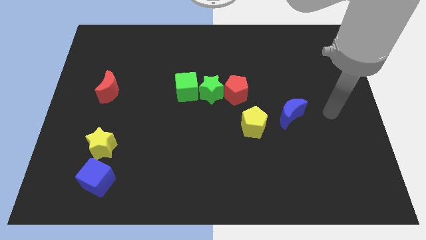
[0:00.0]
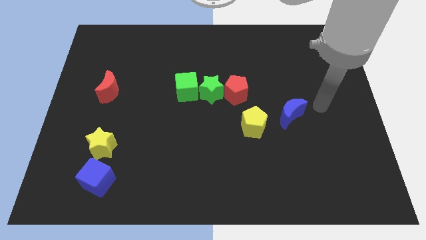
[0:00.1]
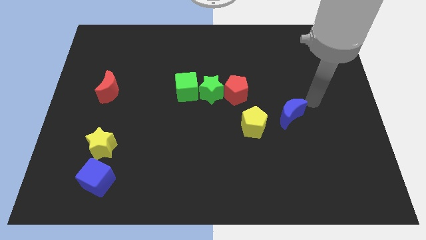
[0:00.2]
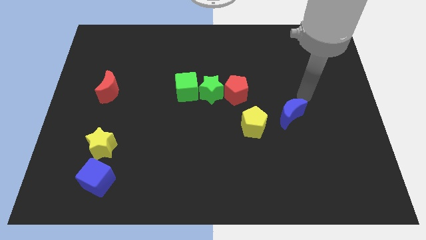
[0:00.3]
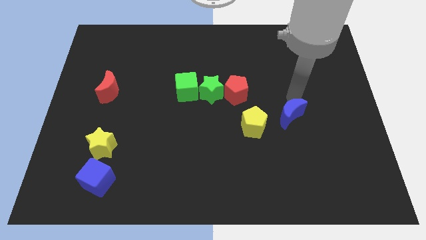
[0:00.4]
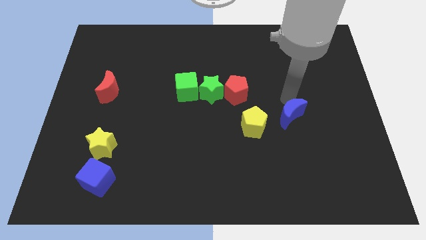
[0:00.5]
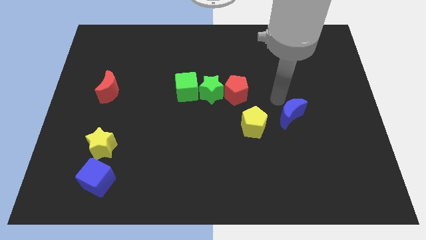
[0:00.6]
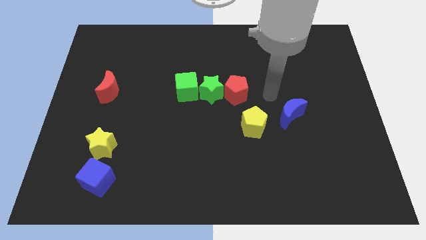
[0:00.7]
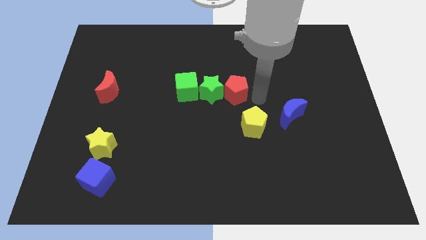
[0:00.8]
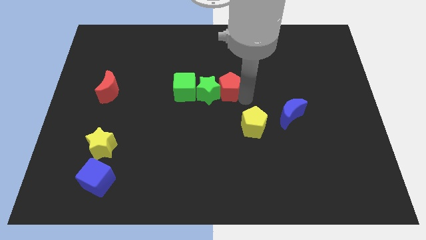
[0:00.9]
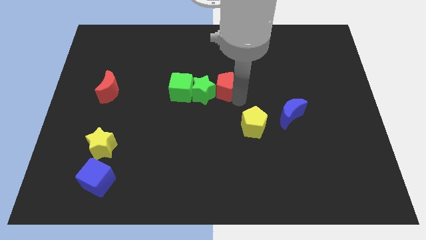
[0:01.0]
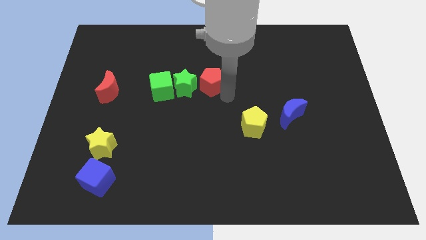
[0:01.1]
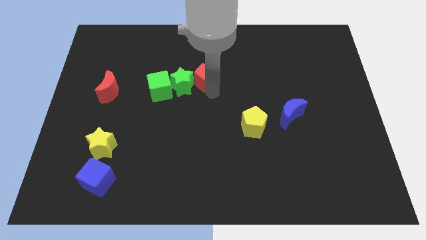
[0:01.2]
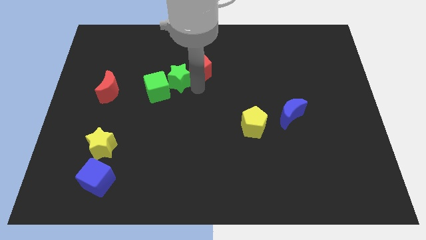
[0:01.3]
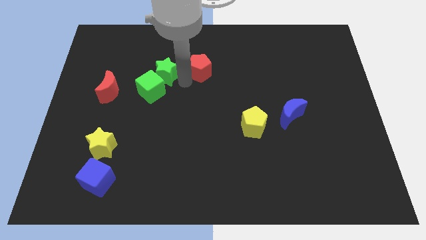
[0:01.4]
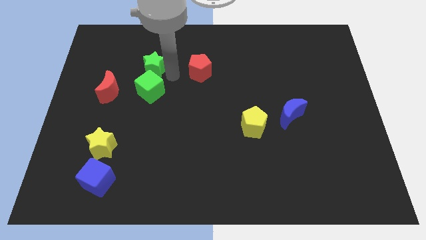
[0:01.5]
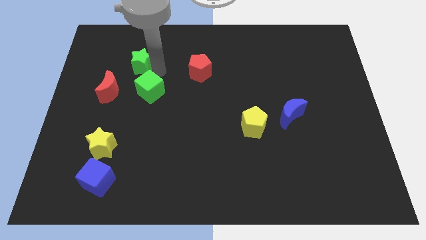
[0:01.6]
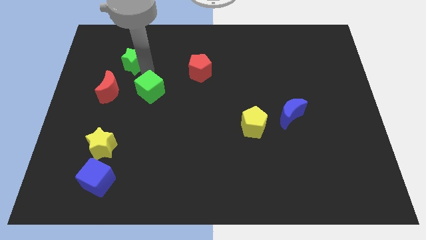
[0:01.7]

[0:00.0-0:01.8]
pull the green cube apart from the green star

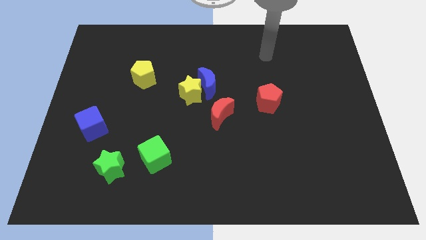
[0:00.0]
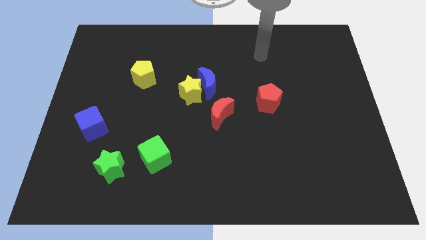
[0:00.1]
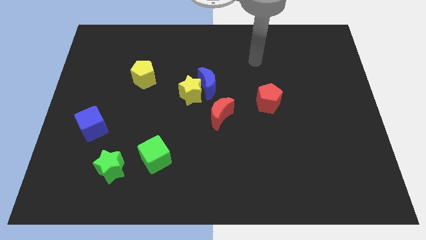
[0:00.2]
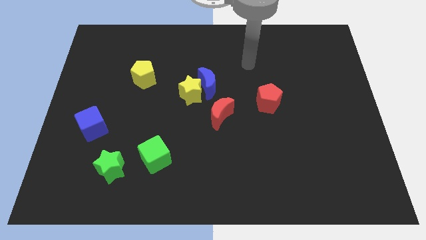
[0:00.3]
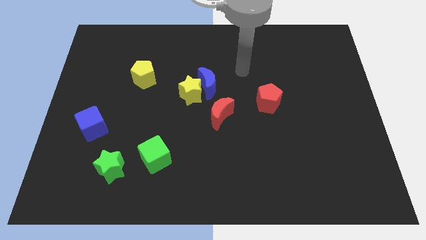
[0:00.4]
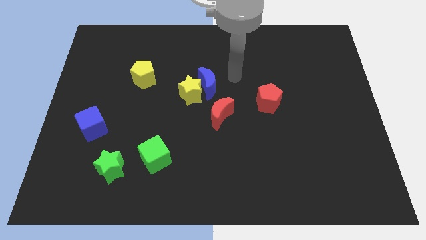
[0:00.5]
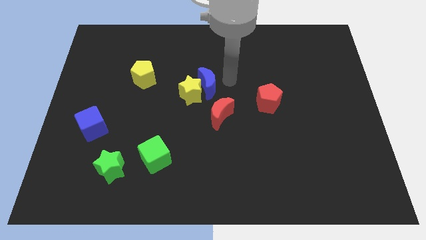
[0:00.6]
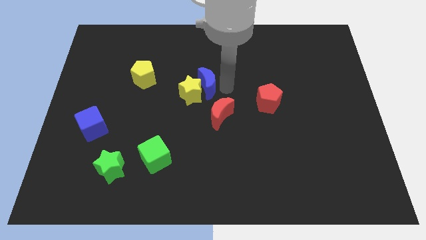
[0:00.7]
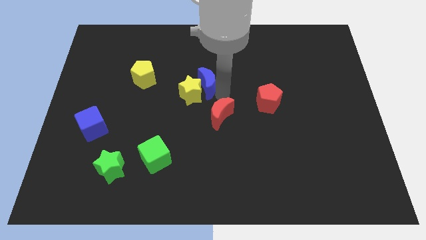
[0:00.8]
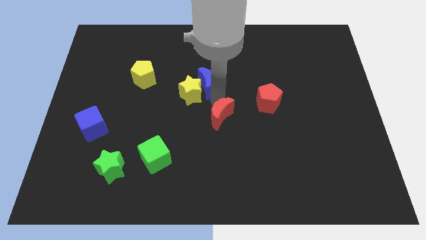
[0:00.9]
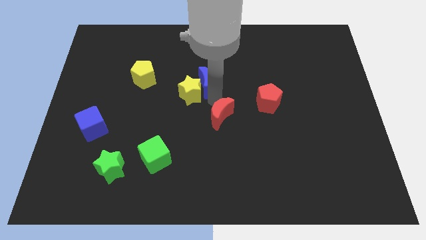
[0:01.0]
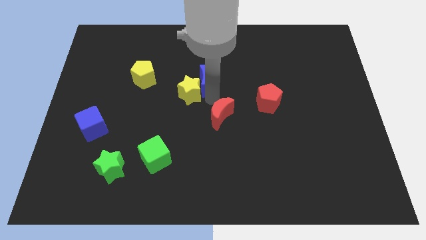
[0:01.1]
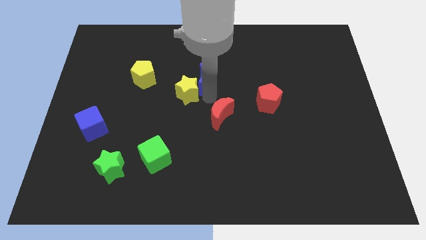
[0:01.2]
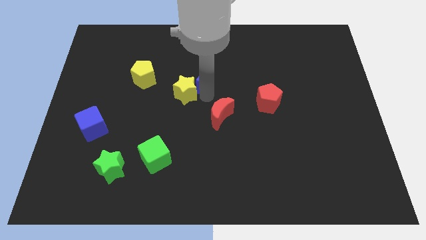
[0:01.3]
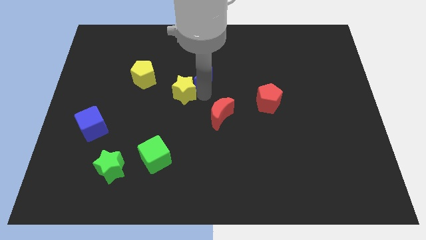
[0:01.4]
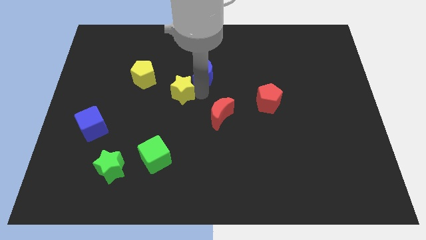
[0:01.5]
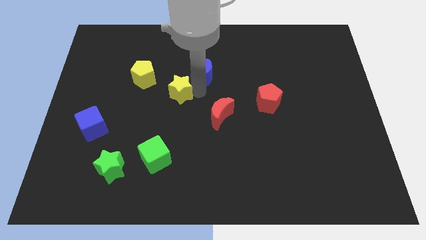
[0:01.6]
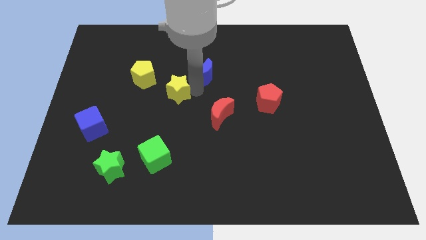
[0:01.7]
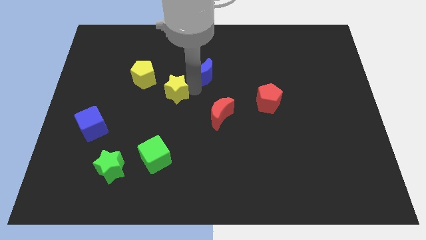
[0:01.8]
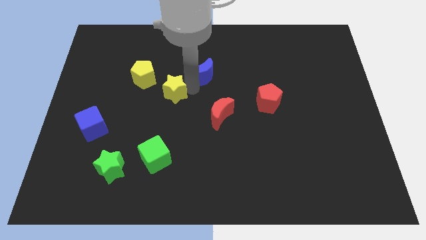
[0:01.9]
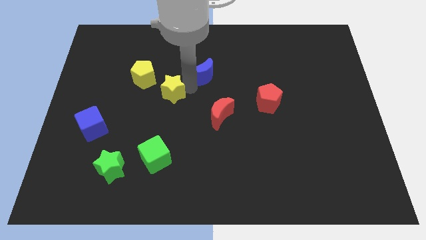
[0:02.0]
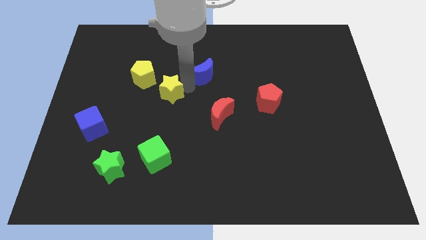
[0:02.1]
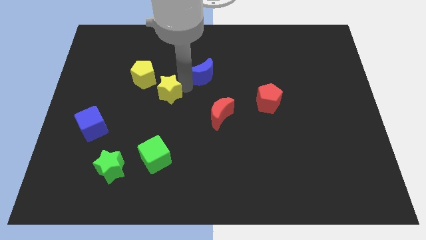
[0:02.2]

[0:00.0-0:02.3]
separate the yellow star from the blue moon and red moon

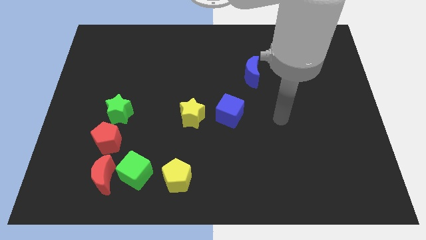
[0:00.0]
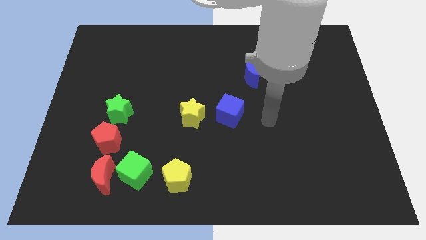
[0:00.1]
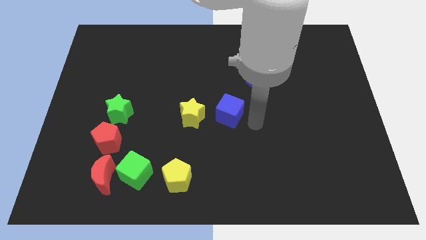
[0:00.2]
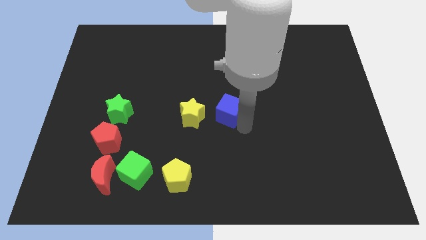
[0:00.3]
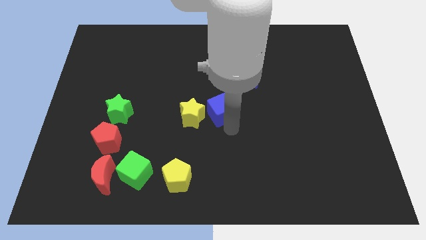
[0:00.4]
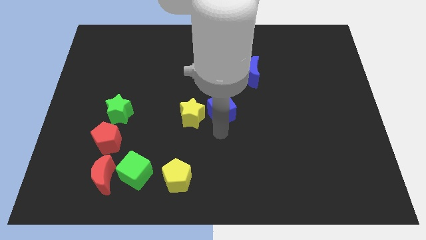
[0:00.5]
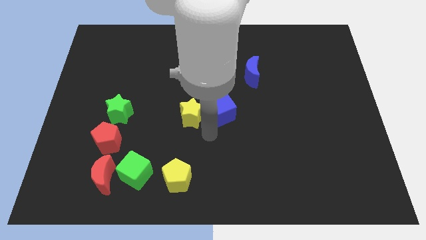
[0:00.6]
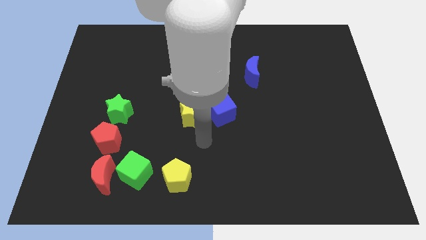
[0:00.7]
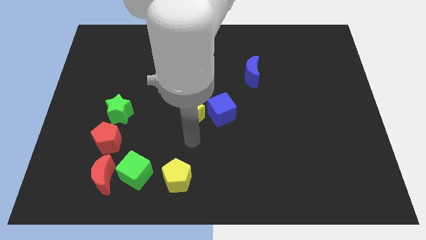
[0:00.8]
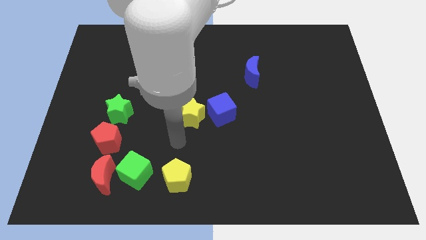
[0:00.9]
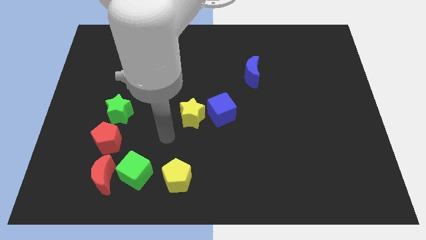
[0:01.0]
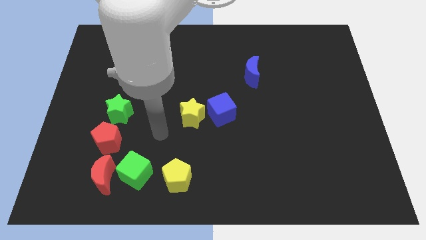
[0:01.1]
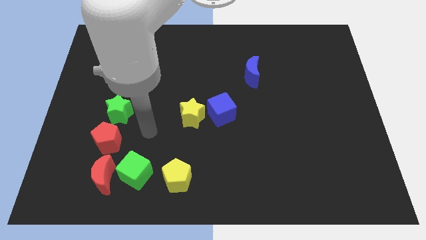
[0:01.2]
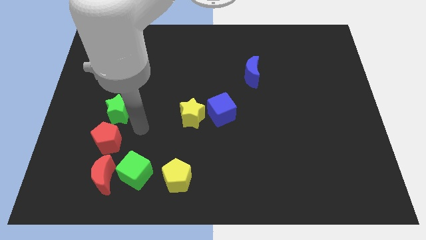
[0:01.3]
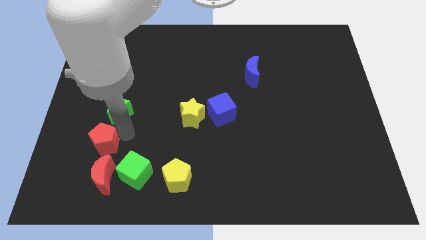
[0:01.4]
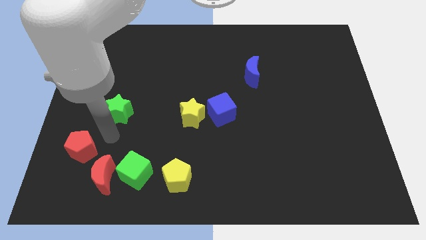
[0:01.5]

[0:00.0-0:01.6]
move the green star away from the red pentagon

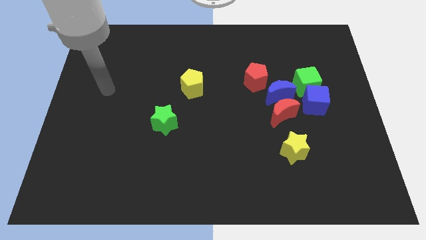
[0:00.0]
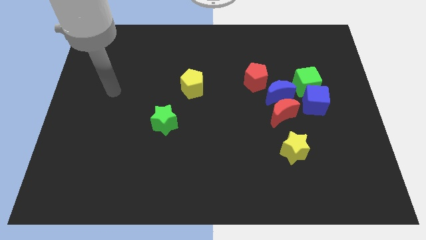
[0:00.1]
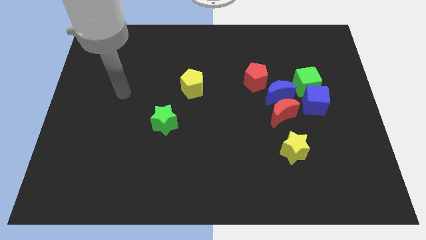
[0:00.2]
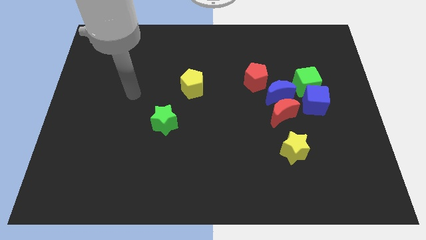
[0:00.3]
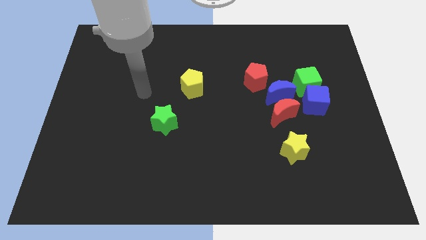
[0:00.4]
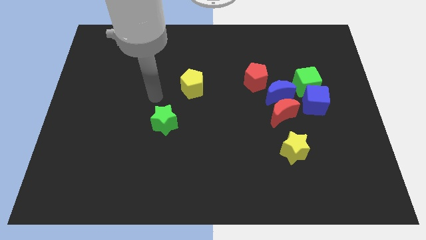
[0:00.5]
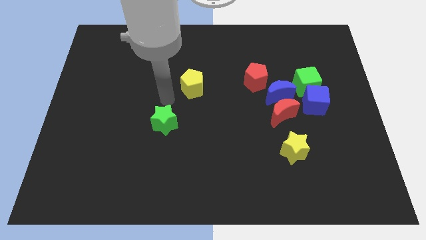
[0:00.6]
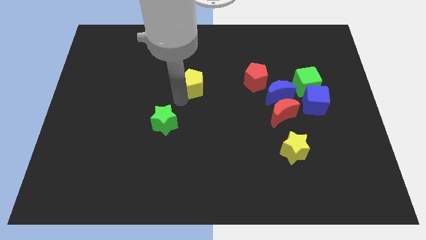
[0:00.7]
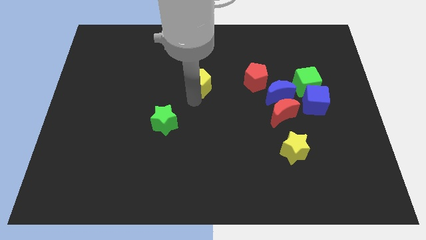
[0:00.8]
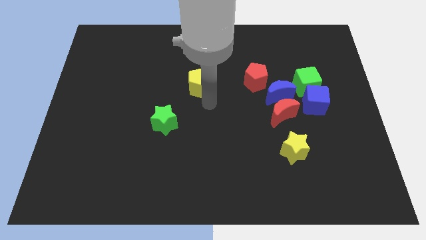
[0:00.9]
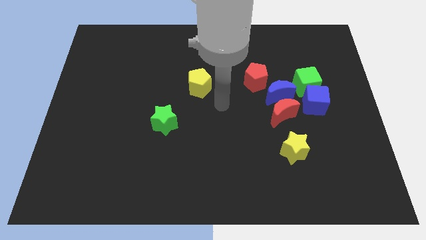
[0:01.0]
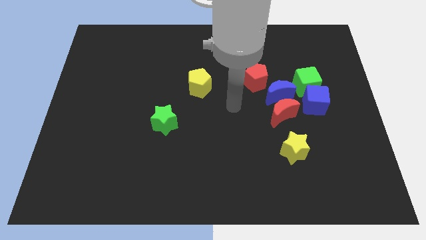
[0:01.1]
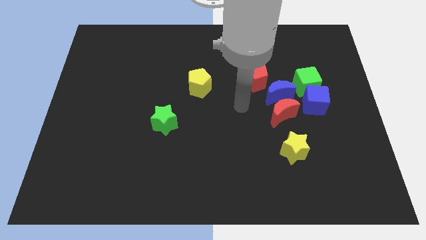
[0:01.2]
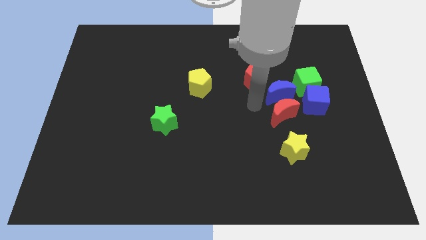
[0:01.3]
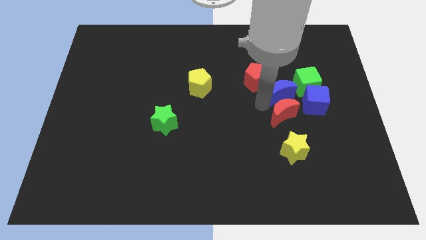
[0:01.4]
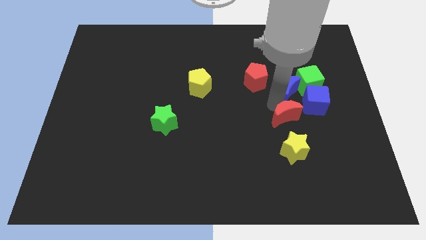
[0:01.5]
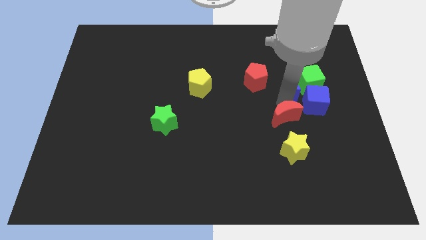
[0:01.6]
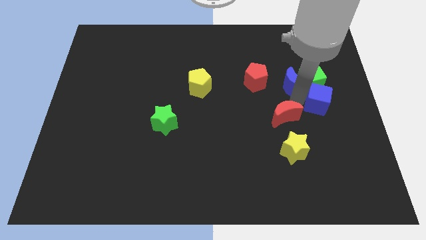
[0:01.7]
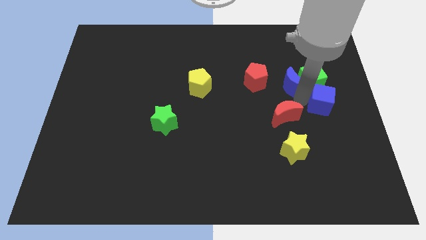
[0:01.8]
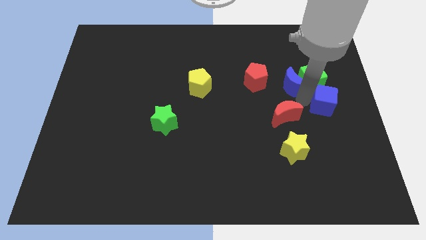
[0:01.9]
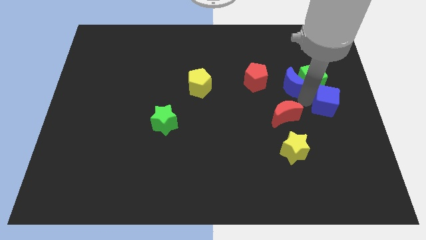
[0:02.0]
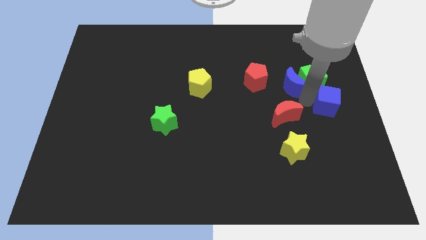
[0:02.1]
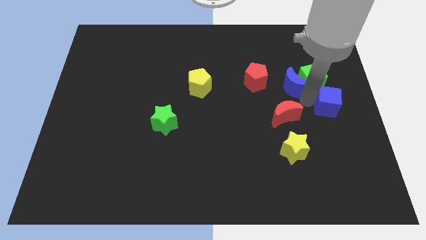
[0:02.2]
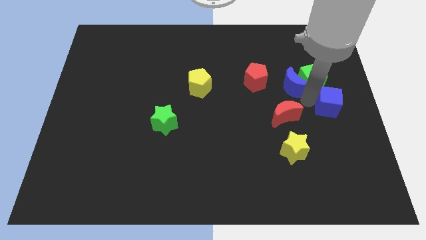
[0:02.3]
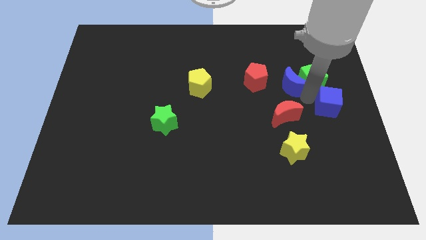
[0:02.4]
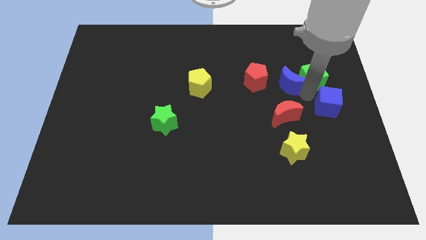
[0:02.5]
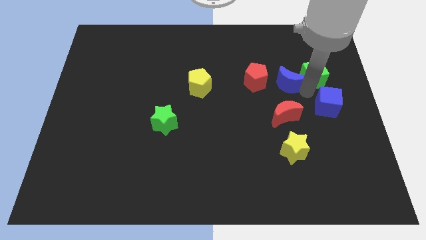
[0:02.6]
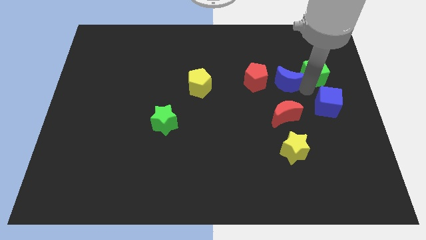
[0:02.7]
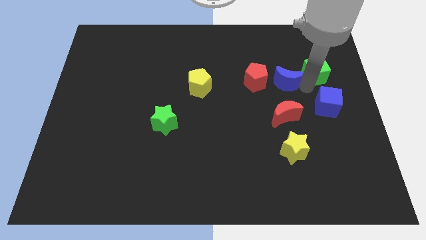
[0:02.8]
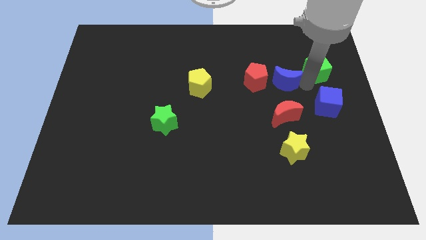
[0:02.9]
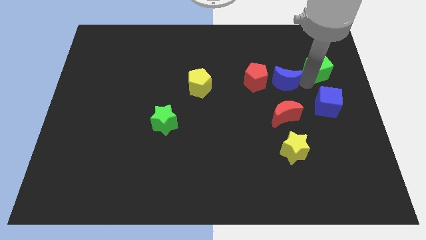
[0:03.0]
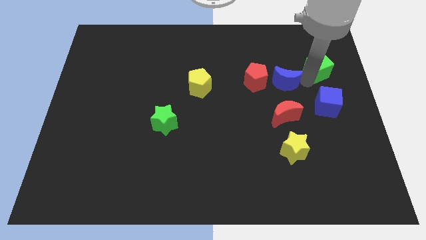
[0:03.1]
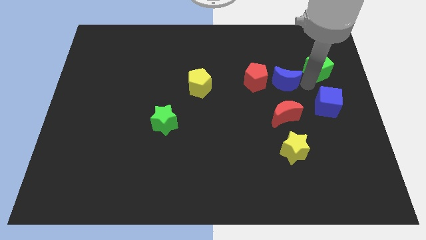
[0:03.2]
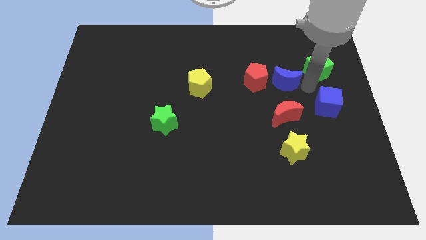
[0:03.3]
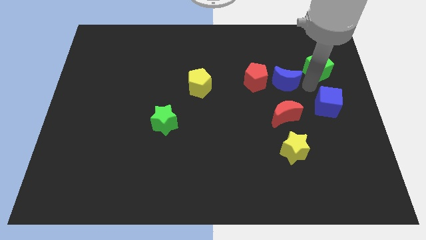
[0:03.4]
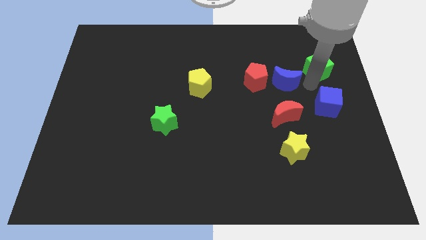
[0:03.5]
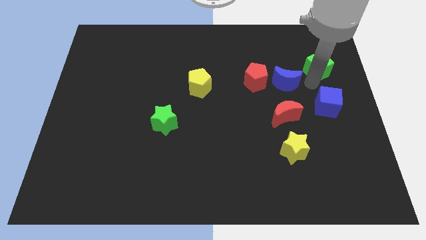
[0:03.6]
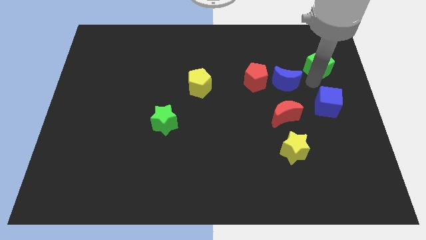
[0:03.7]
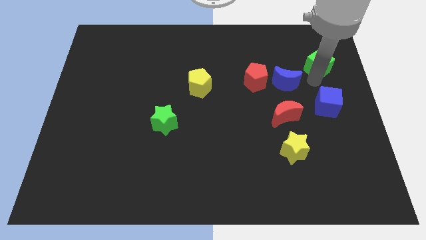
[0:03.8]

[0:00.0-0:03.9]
move the green cube away from the blue cube and blue moon

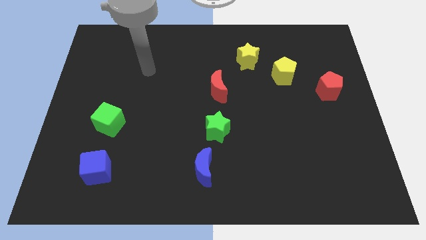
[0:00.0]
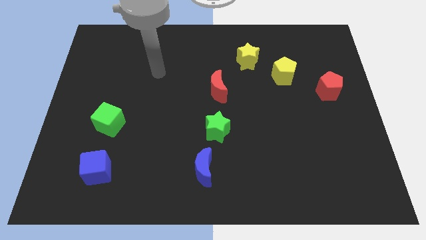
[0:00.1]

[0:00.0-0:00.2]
separate the yellow star from the yellow pentagon
